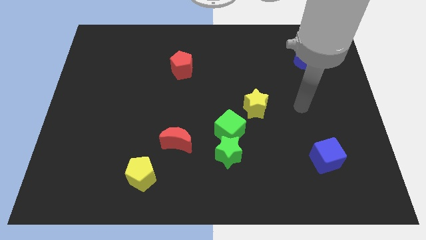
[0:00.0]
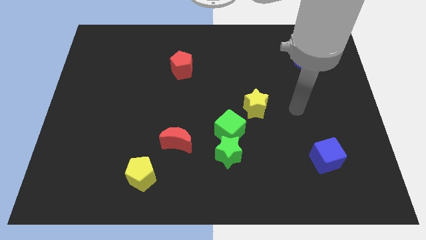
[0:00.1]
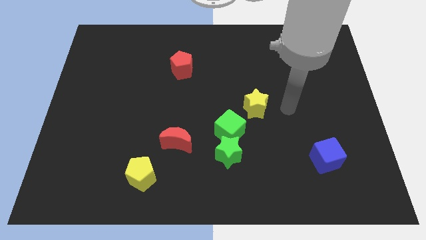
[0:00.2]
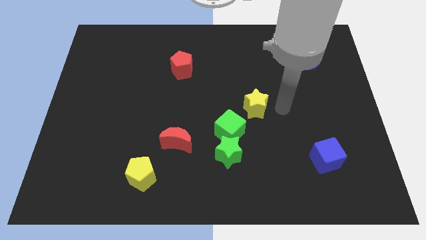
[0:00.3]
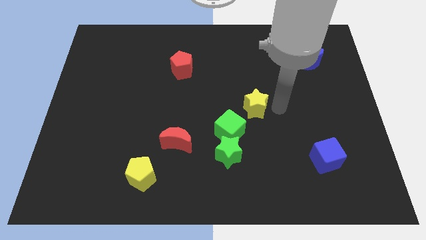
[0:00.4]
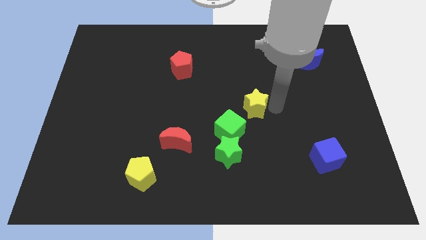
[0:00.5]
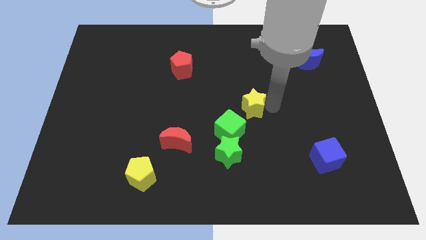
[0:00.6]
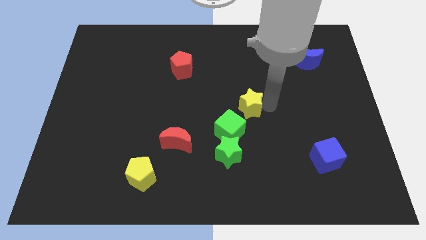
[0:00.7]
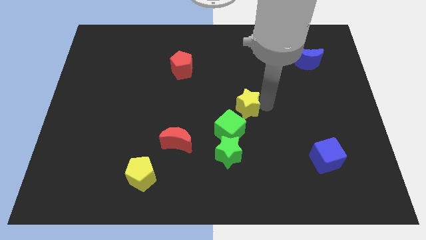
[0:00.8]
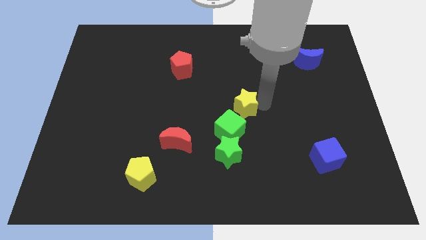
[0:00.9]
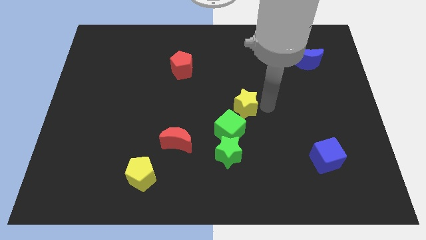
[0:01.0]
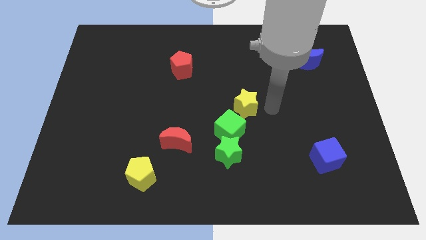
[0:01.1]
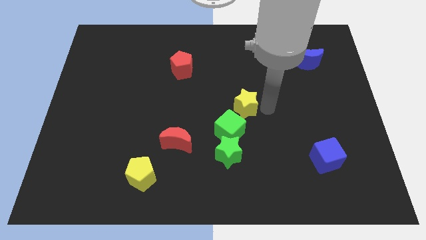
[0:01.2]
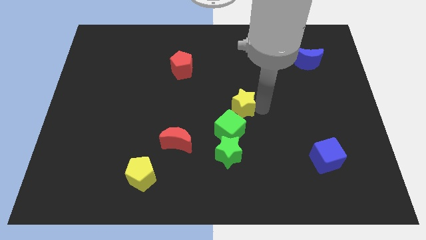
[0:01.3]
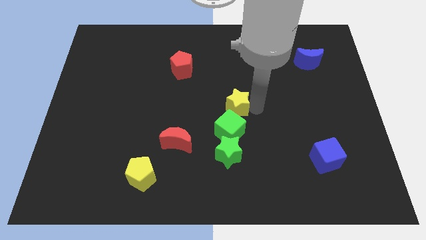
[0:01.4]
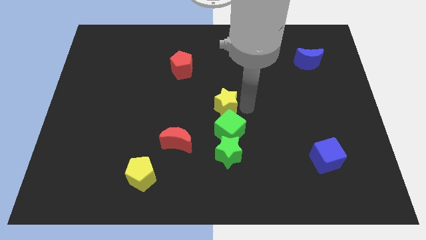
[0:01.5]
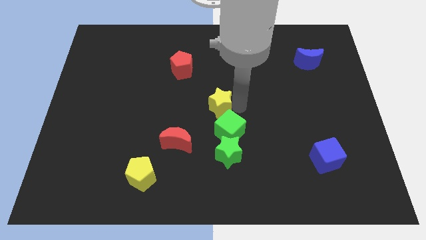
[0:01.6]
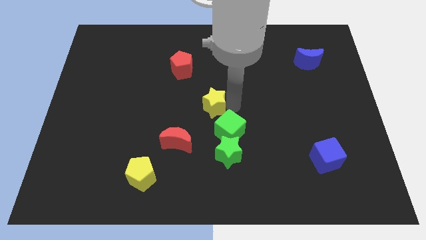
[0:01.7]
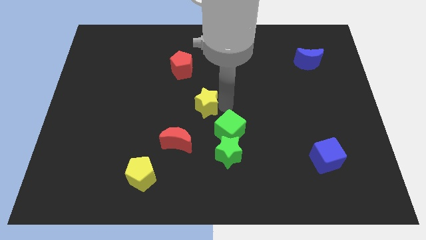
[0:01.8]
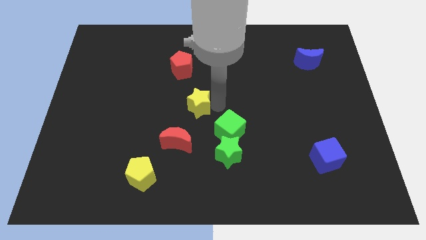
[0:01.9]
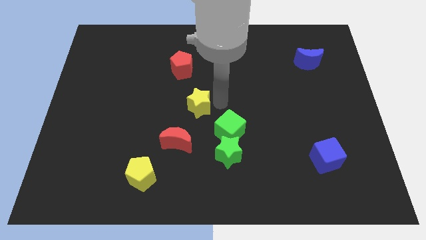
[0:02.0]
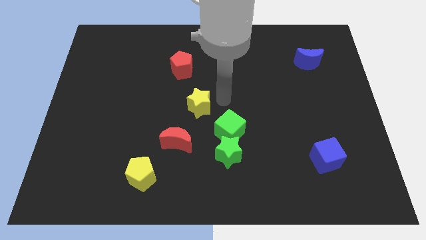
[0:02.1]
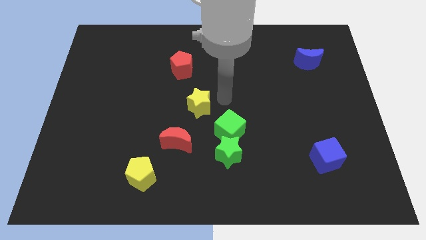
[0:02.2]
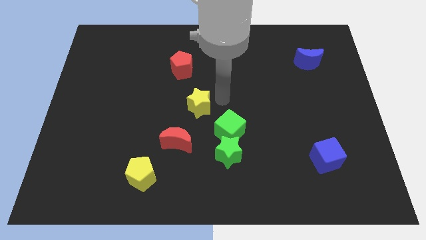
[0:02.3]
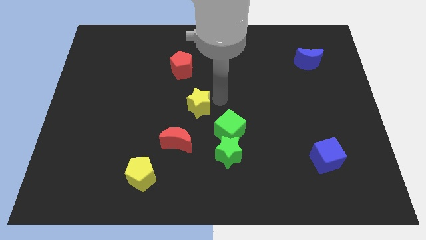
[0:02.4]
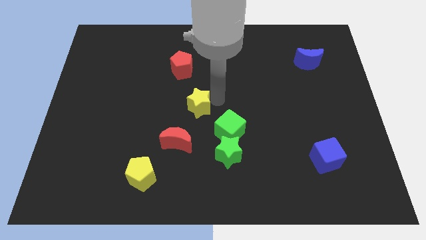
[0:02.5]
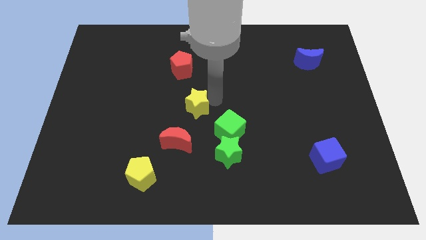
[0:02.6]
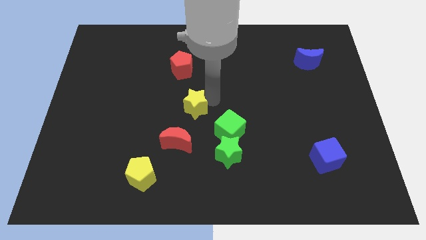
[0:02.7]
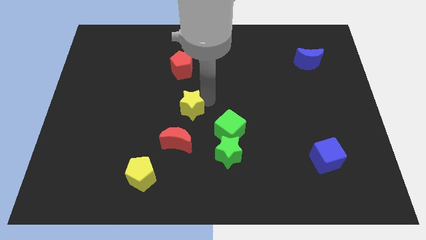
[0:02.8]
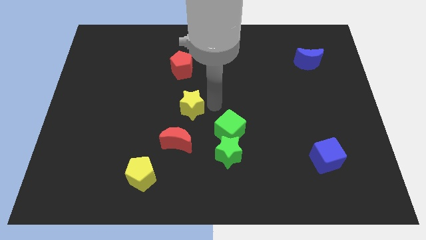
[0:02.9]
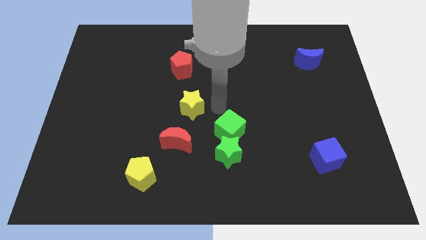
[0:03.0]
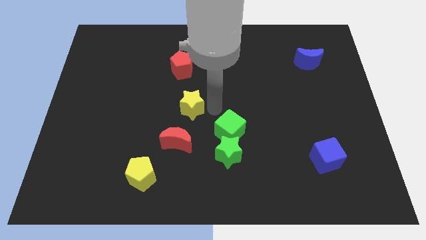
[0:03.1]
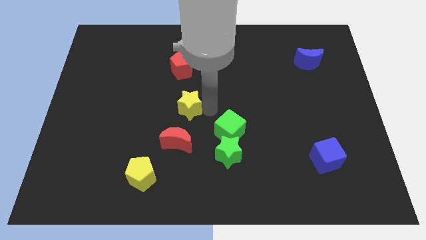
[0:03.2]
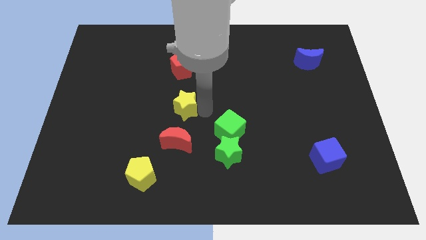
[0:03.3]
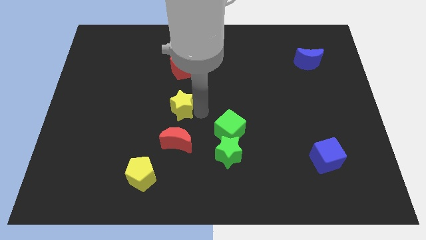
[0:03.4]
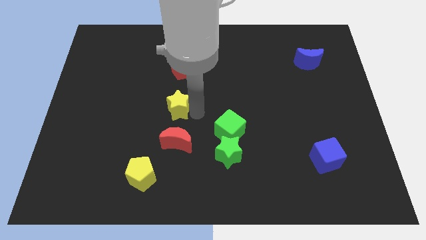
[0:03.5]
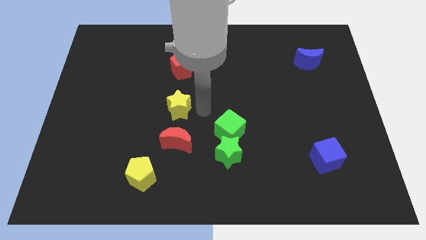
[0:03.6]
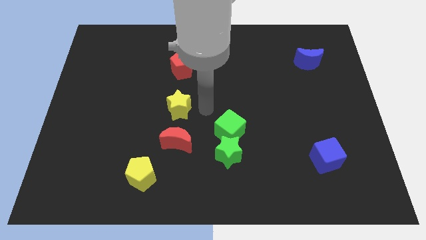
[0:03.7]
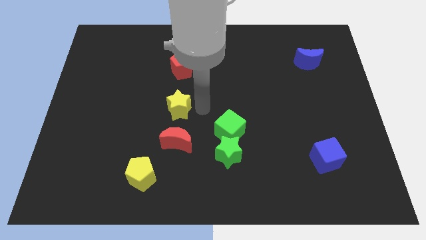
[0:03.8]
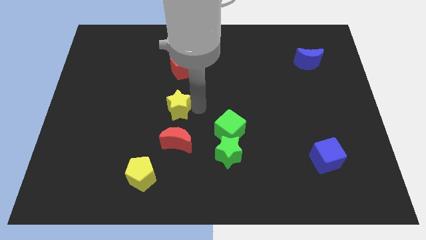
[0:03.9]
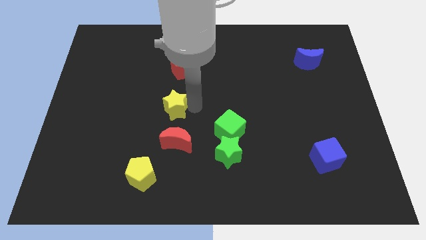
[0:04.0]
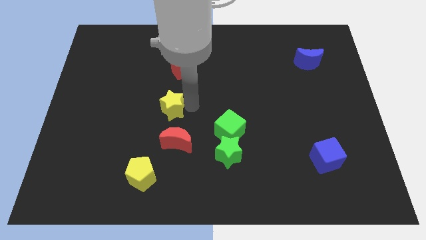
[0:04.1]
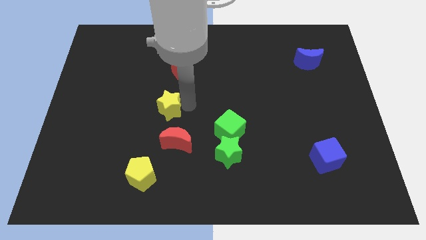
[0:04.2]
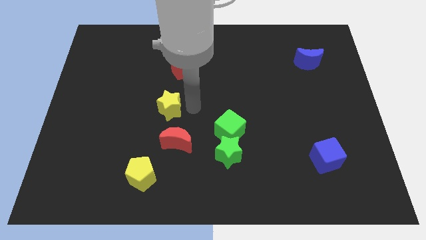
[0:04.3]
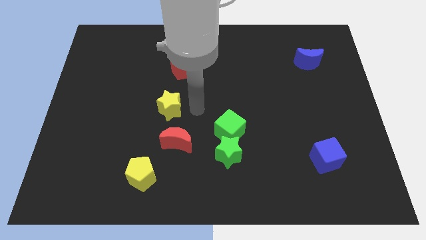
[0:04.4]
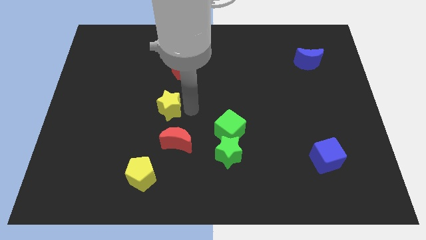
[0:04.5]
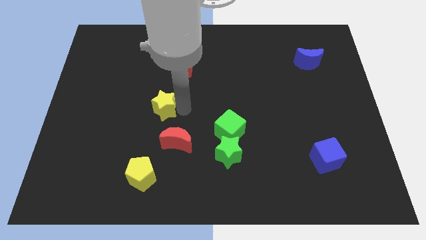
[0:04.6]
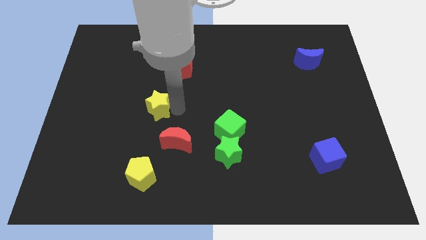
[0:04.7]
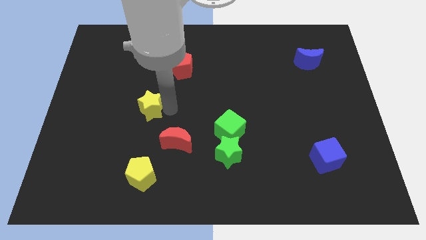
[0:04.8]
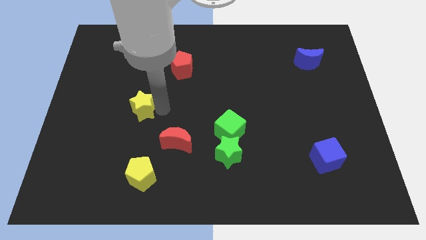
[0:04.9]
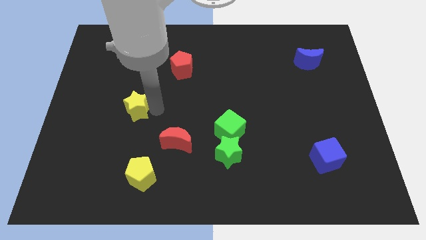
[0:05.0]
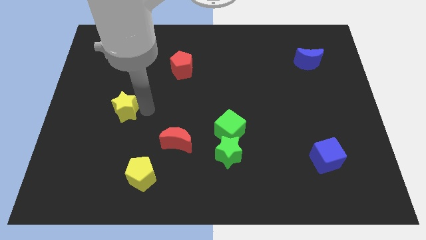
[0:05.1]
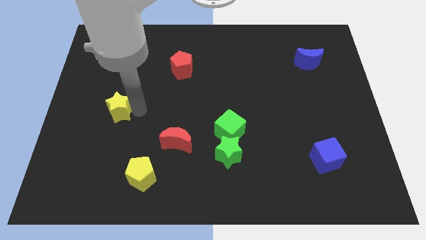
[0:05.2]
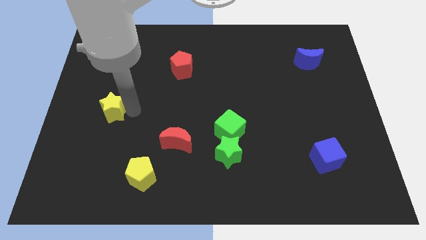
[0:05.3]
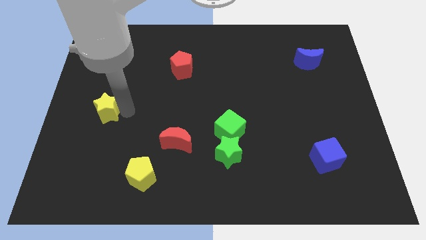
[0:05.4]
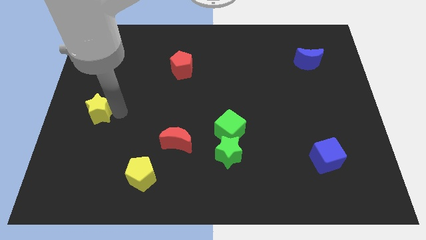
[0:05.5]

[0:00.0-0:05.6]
slide the yellow star to the left side

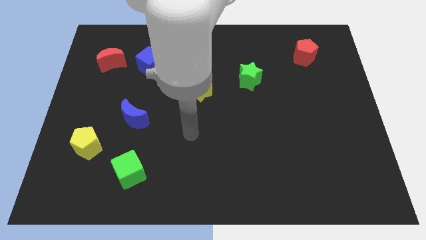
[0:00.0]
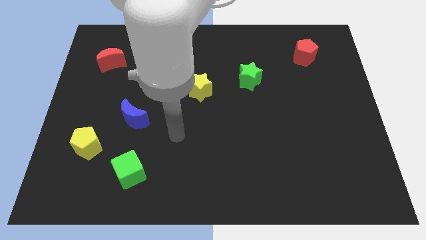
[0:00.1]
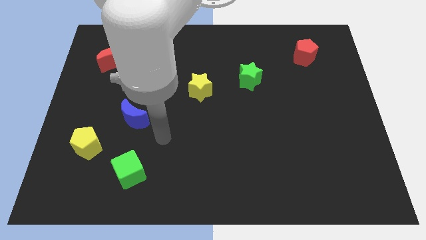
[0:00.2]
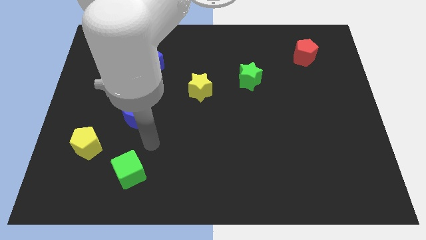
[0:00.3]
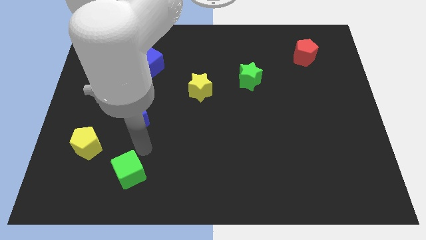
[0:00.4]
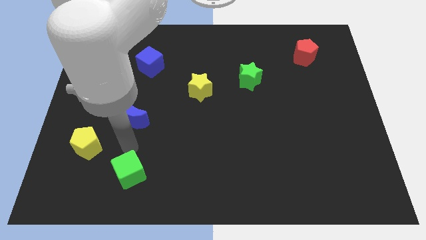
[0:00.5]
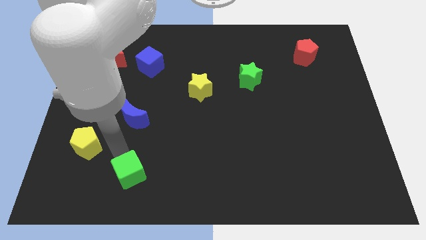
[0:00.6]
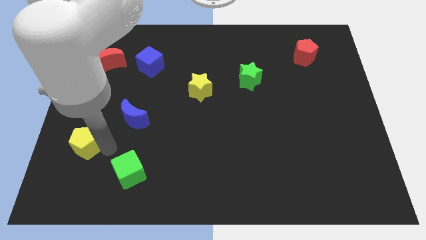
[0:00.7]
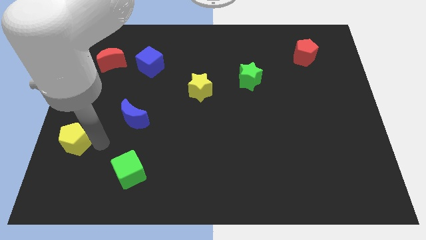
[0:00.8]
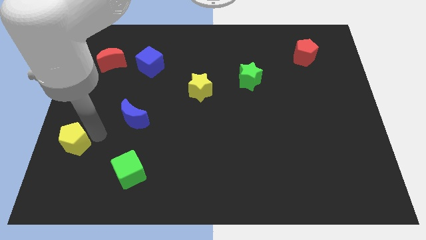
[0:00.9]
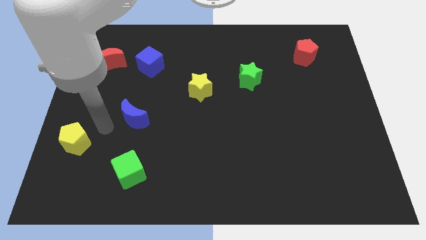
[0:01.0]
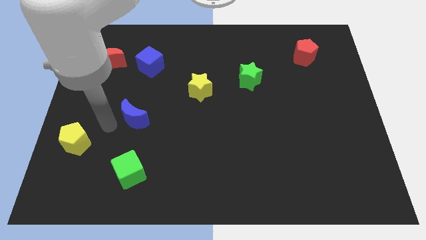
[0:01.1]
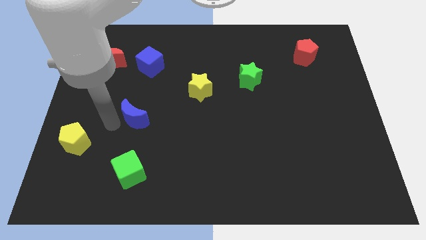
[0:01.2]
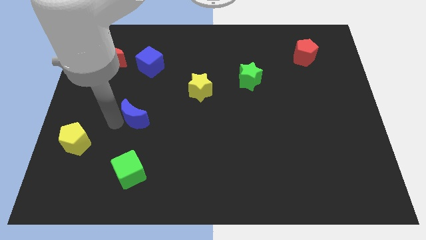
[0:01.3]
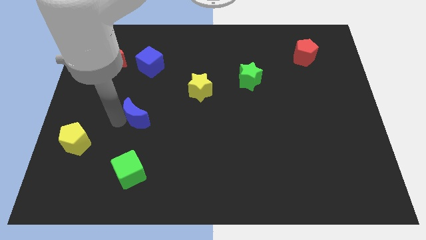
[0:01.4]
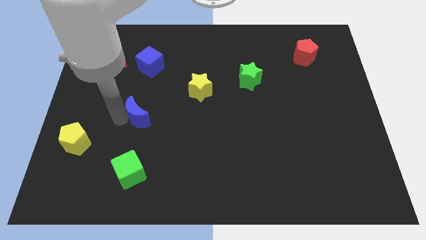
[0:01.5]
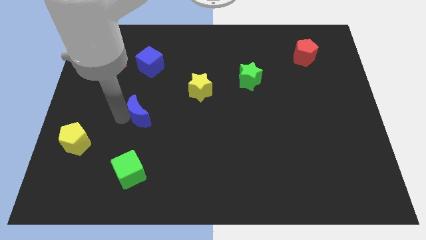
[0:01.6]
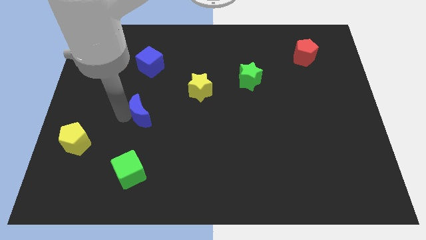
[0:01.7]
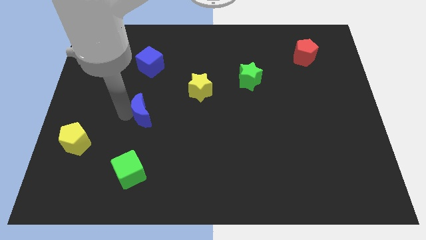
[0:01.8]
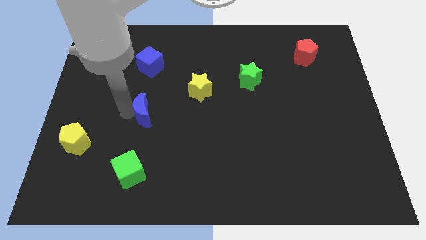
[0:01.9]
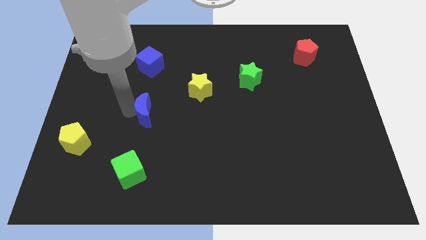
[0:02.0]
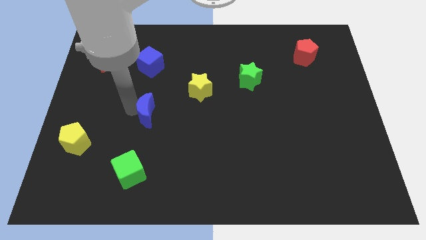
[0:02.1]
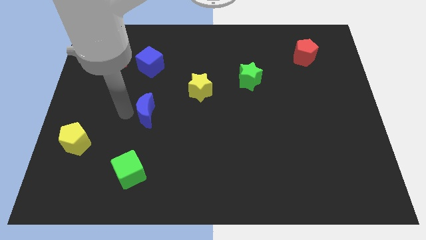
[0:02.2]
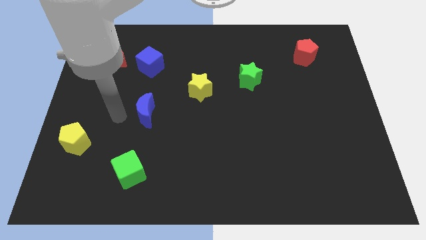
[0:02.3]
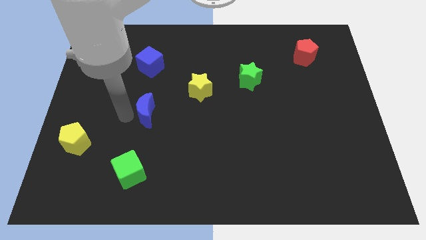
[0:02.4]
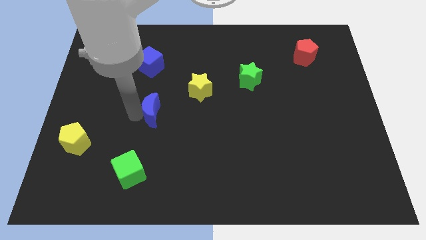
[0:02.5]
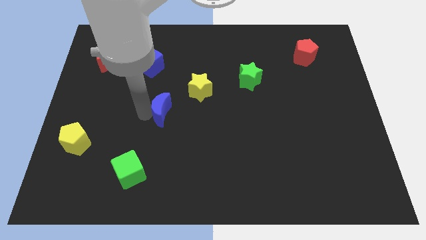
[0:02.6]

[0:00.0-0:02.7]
push the blue moon to the center
